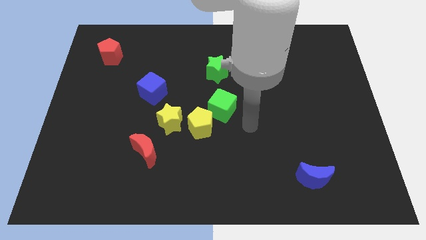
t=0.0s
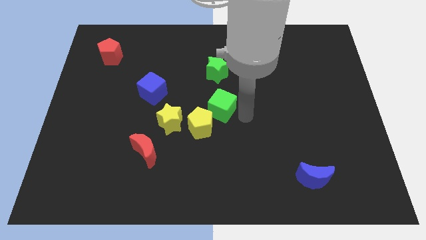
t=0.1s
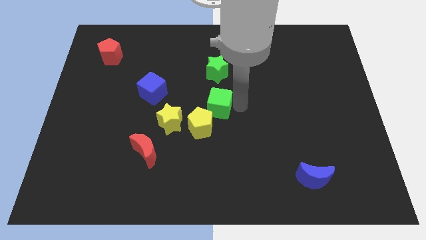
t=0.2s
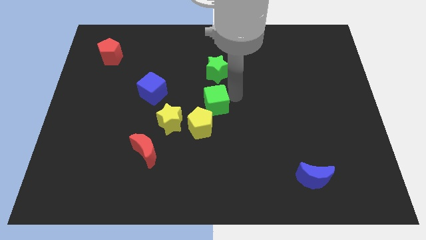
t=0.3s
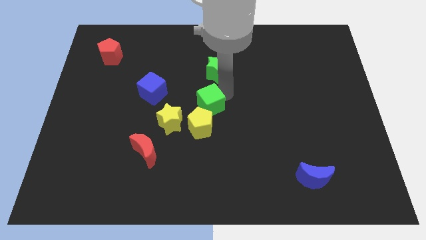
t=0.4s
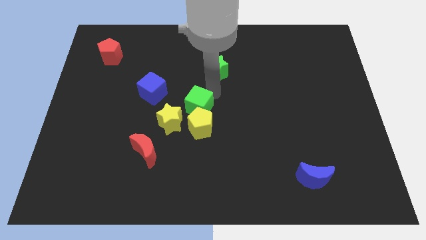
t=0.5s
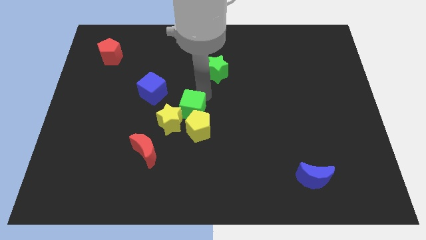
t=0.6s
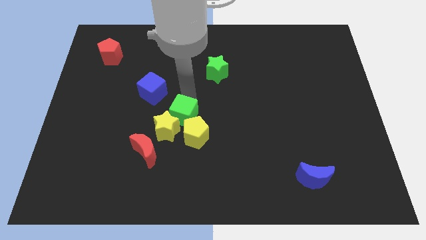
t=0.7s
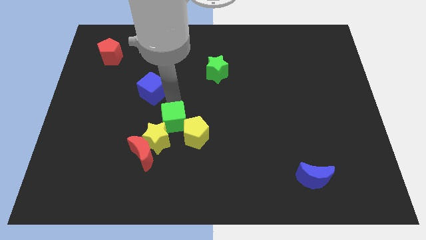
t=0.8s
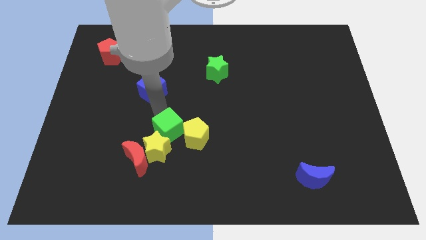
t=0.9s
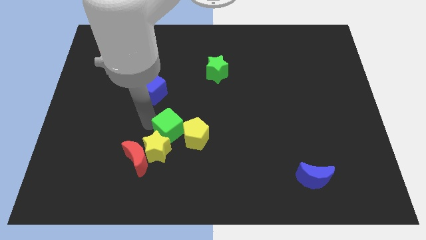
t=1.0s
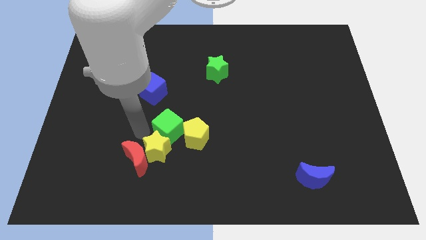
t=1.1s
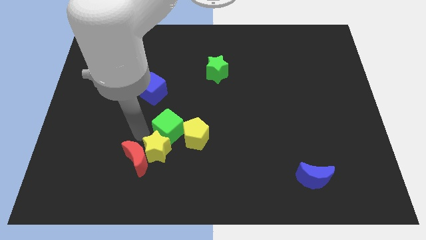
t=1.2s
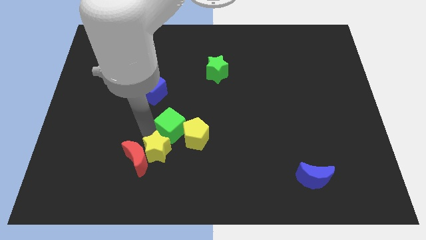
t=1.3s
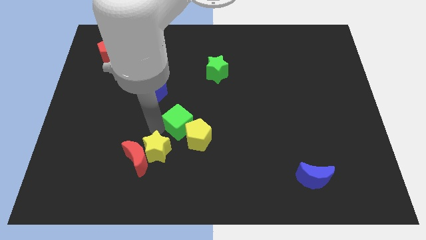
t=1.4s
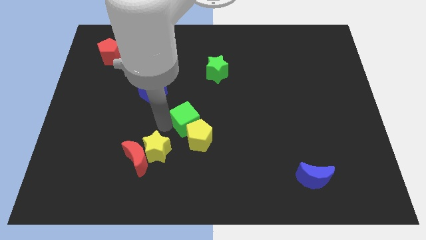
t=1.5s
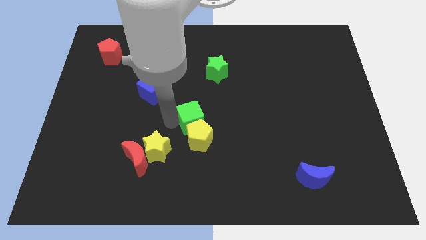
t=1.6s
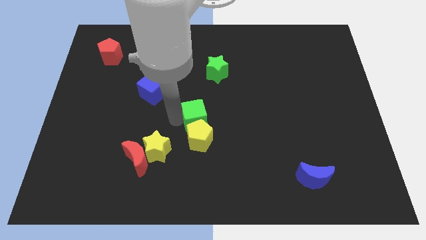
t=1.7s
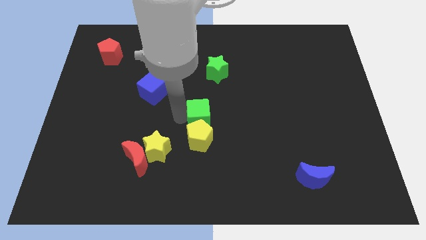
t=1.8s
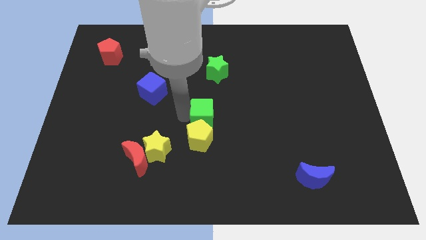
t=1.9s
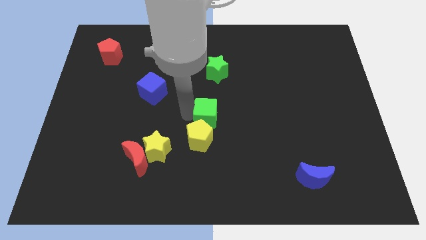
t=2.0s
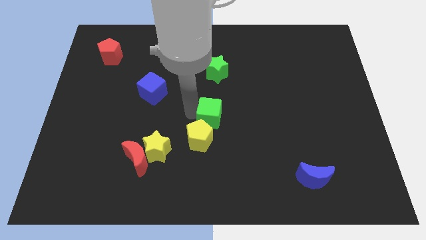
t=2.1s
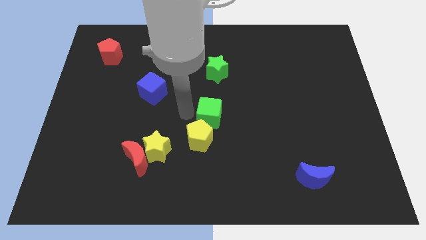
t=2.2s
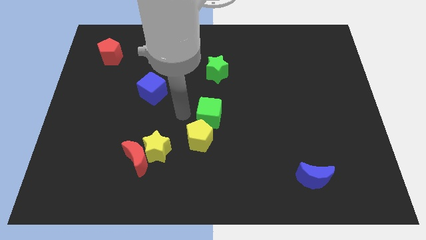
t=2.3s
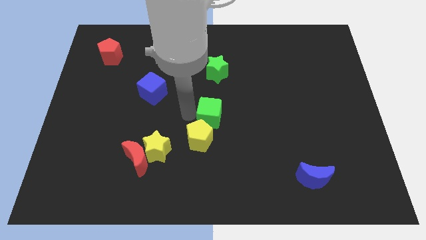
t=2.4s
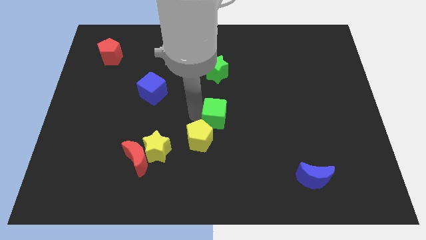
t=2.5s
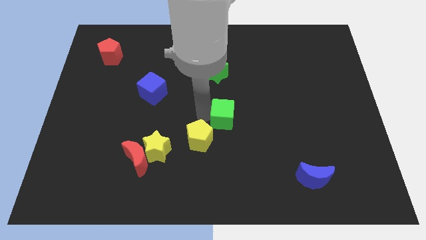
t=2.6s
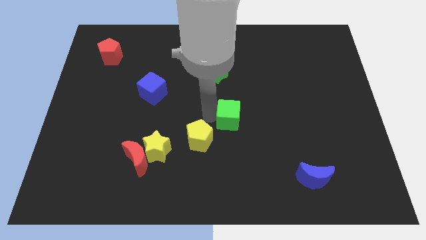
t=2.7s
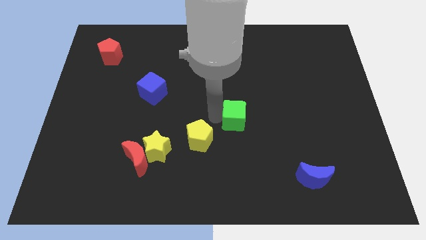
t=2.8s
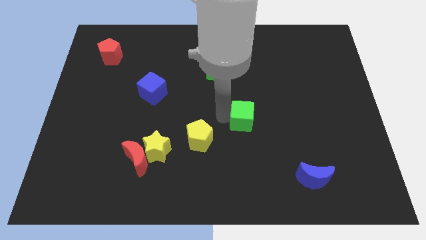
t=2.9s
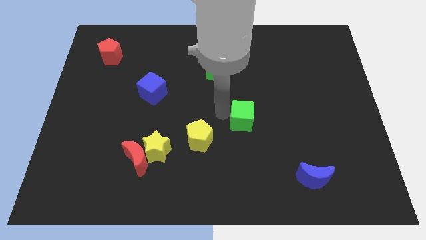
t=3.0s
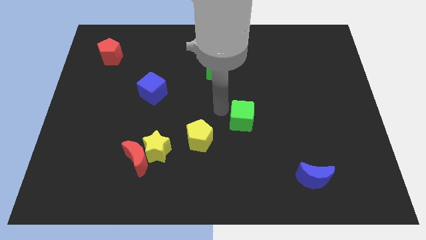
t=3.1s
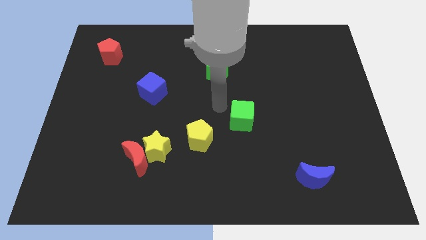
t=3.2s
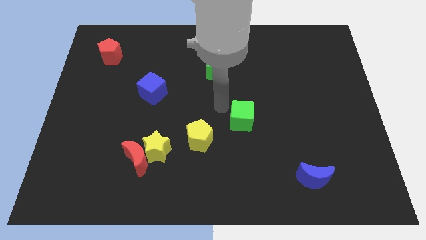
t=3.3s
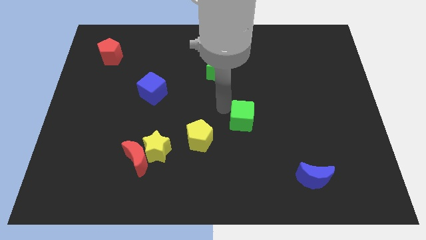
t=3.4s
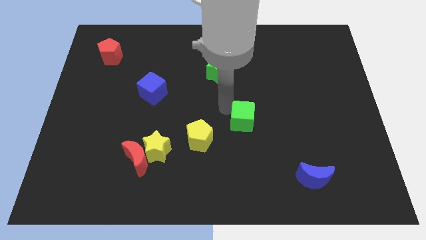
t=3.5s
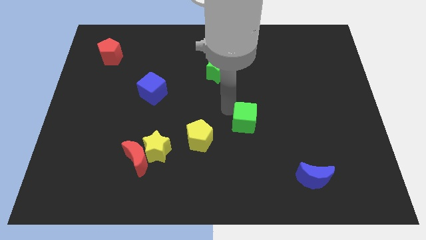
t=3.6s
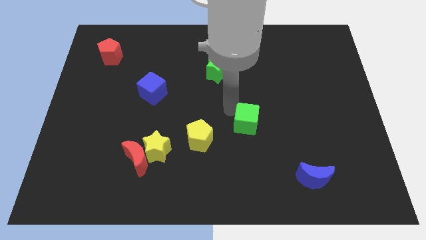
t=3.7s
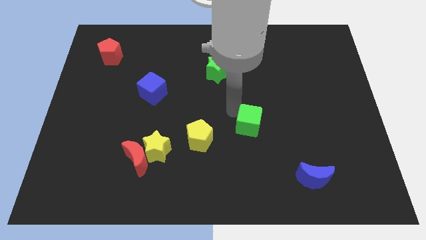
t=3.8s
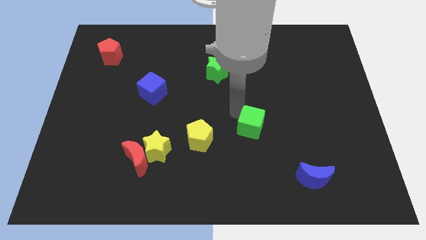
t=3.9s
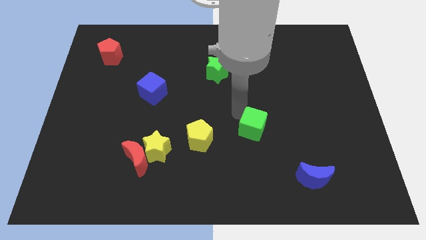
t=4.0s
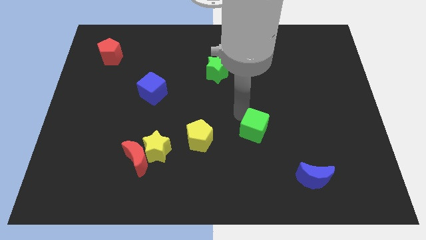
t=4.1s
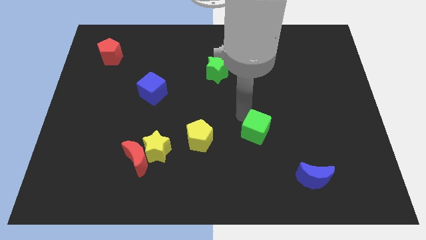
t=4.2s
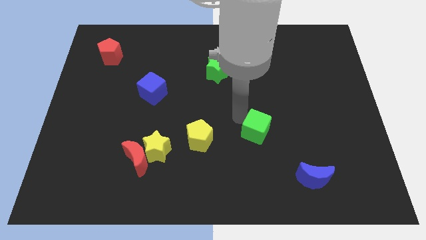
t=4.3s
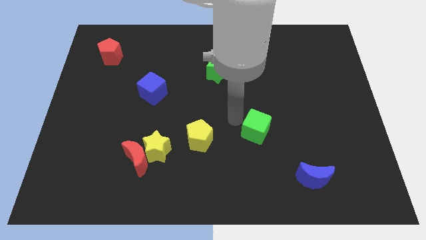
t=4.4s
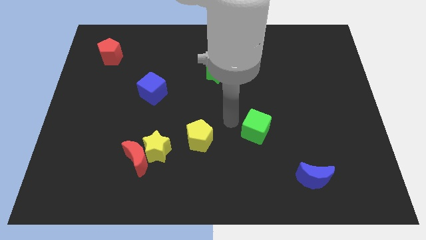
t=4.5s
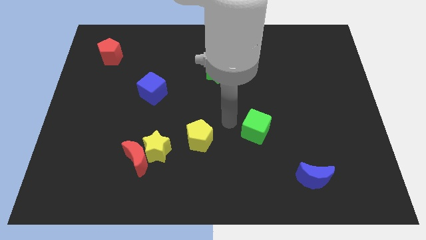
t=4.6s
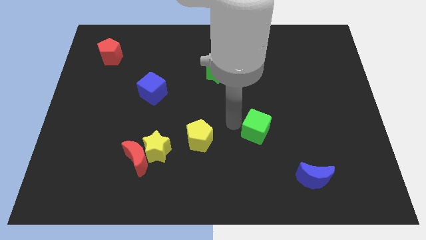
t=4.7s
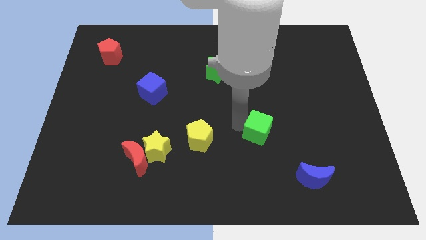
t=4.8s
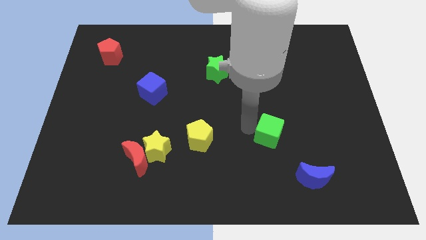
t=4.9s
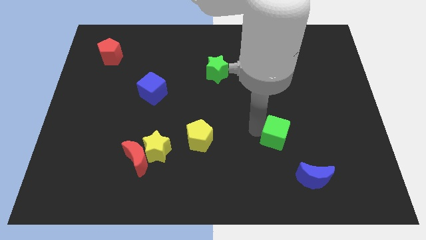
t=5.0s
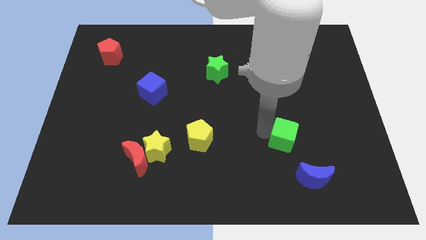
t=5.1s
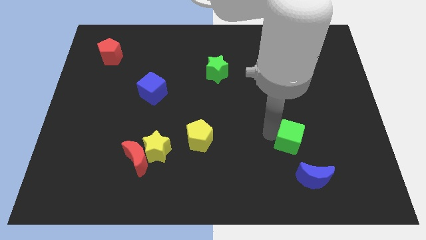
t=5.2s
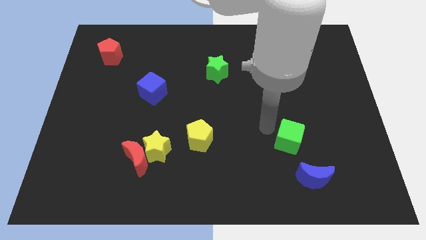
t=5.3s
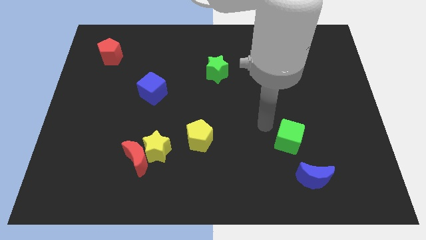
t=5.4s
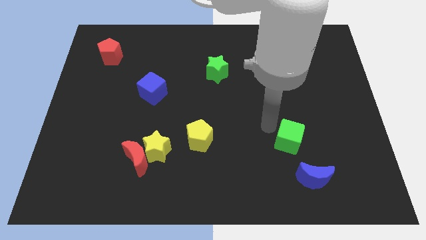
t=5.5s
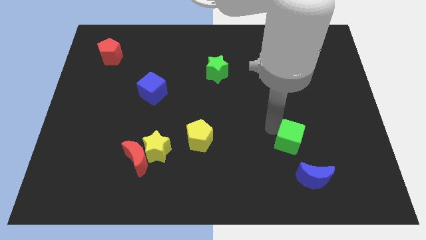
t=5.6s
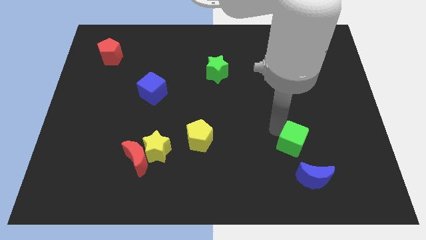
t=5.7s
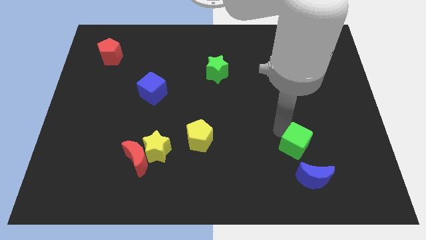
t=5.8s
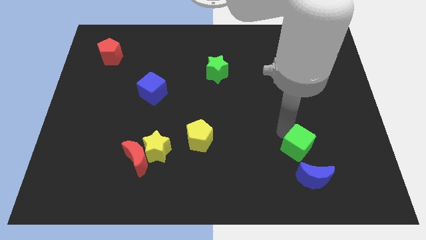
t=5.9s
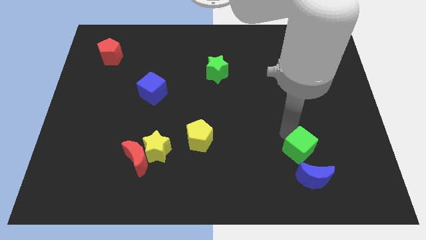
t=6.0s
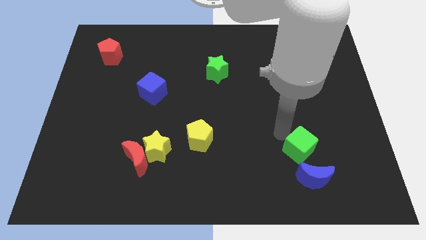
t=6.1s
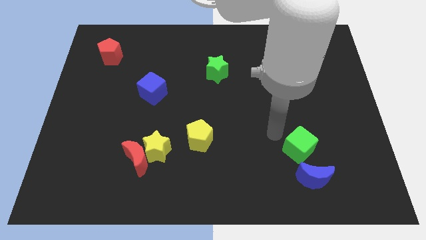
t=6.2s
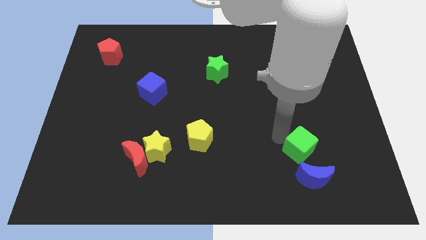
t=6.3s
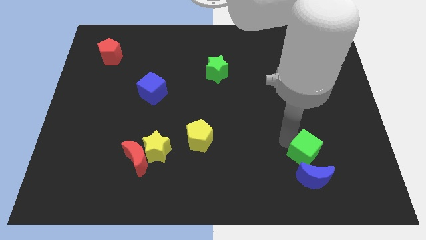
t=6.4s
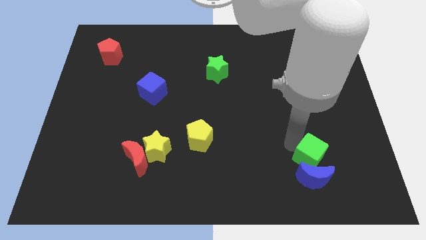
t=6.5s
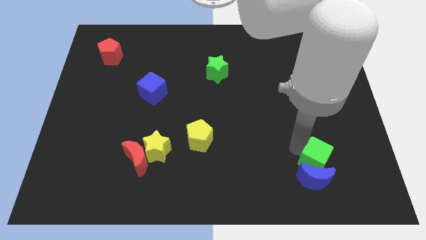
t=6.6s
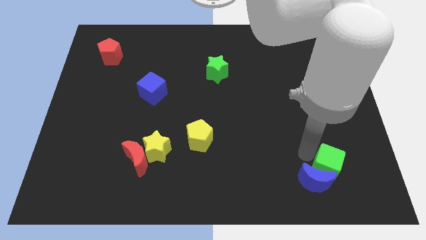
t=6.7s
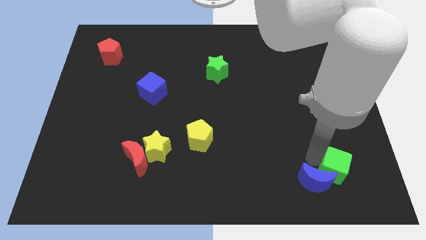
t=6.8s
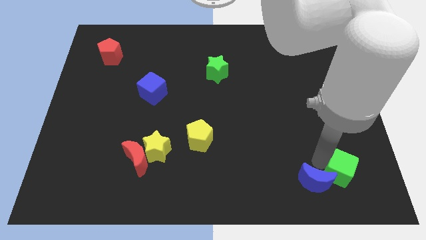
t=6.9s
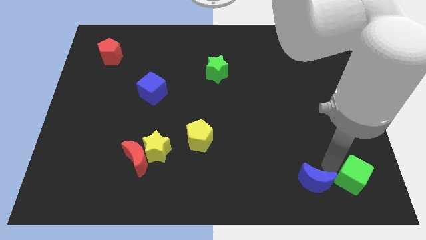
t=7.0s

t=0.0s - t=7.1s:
push the green cube to the bottom right corner
